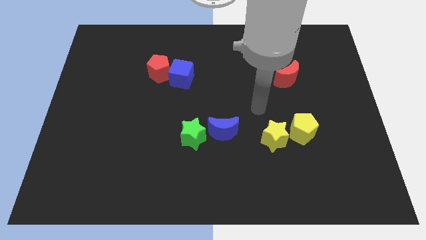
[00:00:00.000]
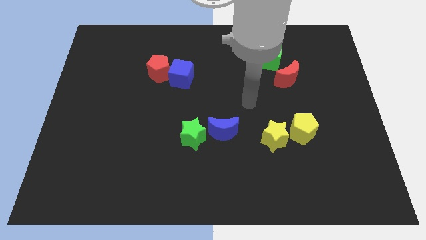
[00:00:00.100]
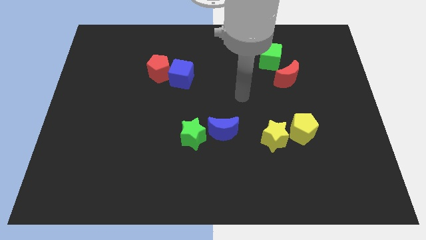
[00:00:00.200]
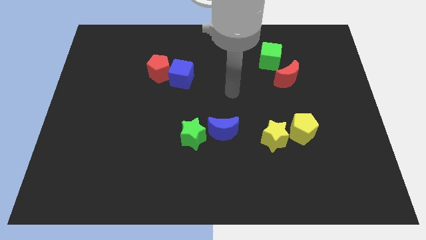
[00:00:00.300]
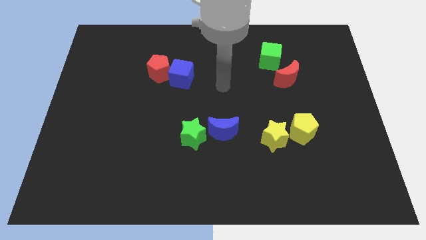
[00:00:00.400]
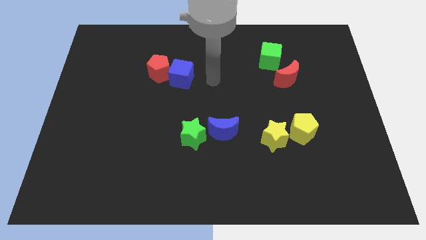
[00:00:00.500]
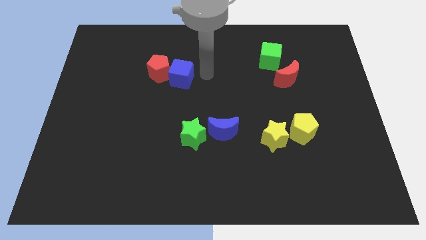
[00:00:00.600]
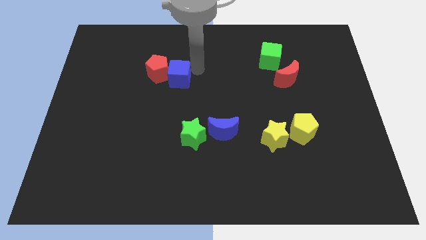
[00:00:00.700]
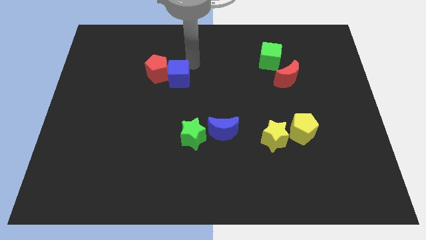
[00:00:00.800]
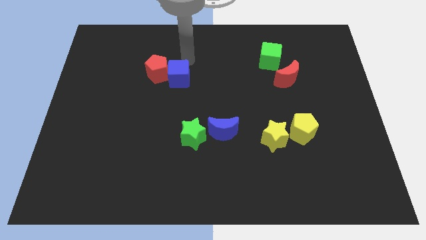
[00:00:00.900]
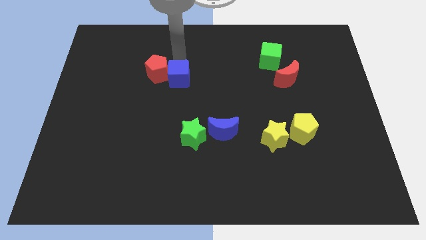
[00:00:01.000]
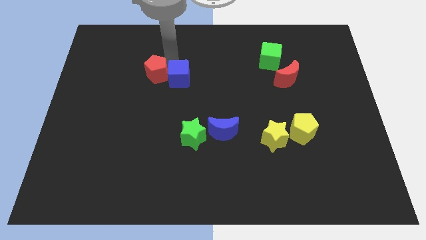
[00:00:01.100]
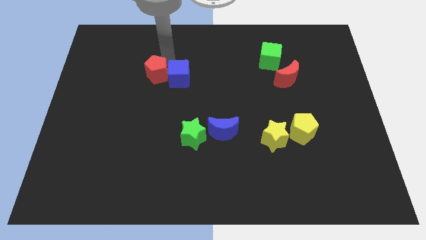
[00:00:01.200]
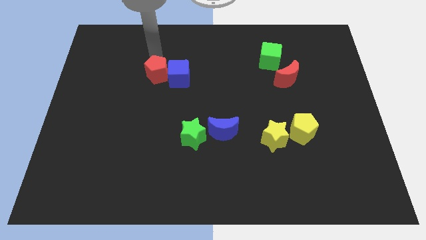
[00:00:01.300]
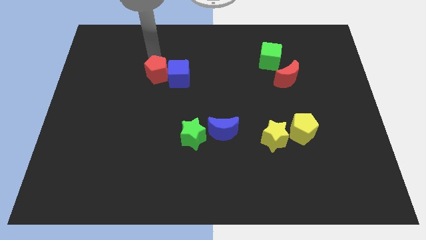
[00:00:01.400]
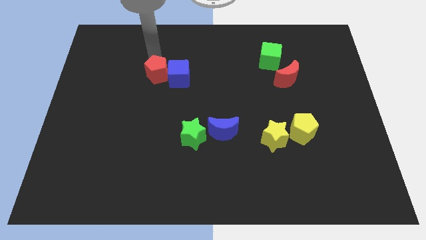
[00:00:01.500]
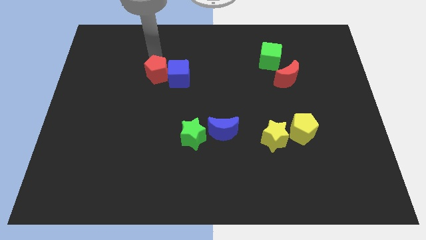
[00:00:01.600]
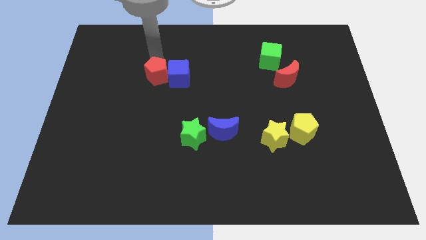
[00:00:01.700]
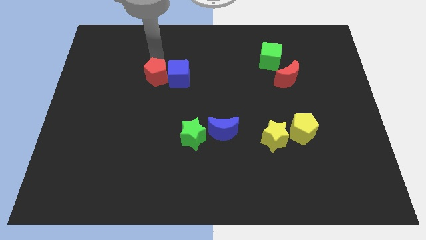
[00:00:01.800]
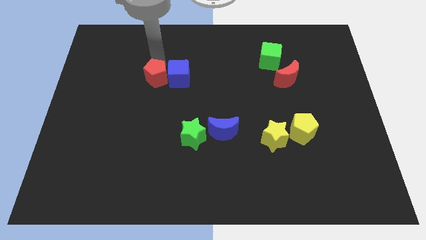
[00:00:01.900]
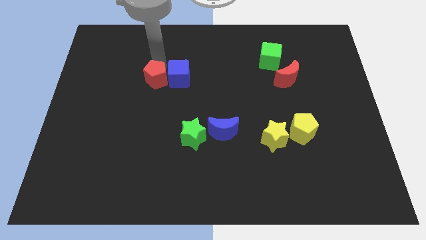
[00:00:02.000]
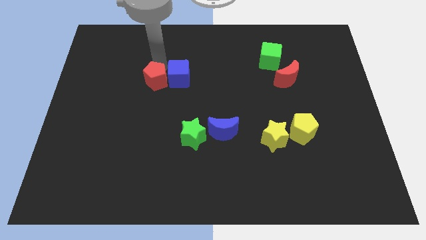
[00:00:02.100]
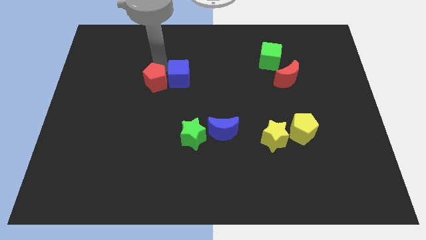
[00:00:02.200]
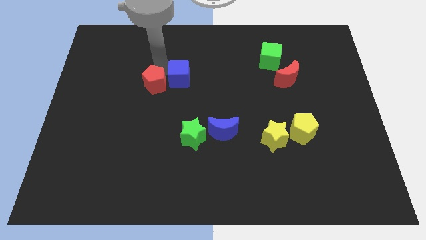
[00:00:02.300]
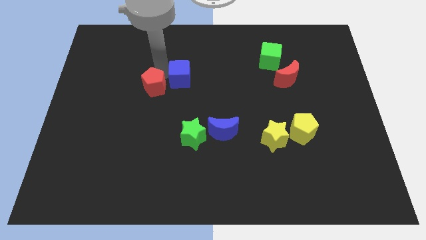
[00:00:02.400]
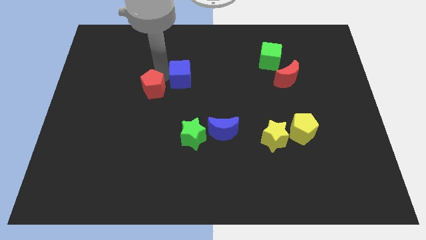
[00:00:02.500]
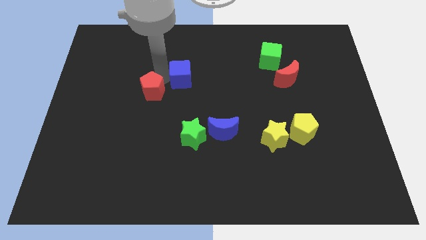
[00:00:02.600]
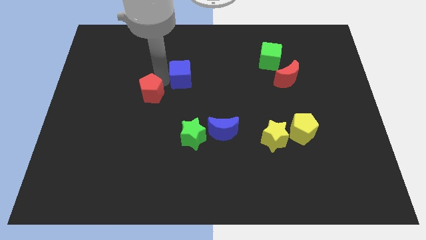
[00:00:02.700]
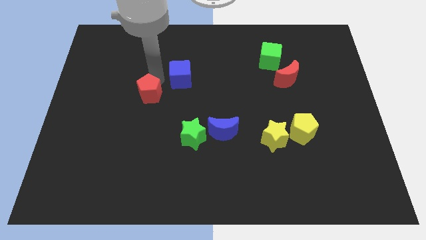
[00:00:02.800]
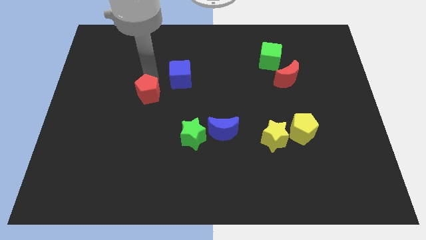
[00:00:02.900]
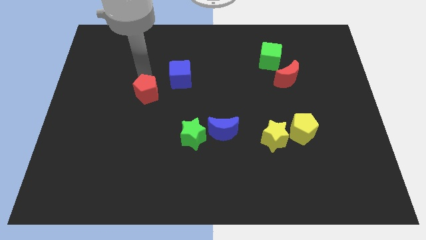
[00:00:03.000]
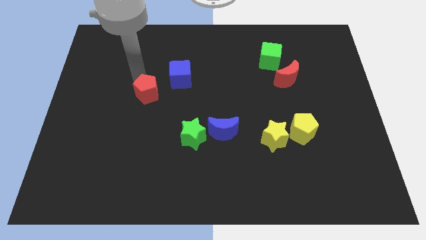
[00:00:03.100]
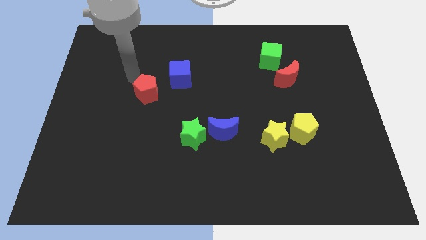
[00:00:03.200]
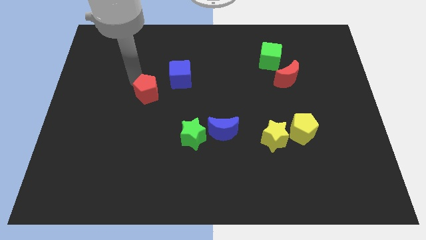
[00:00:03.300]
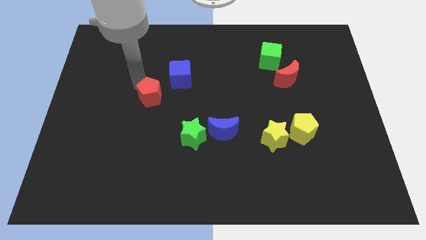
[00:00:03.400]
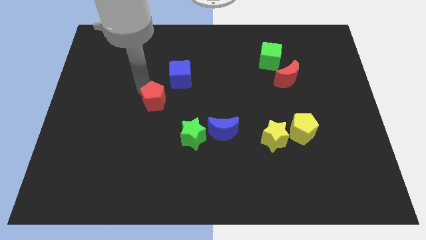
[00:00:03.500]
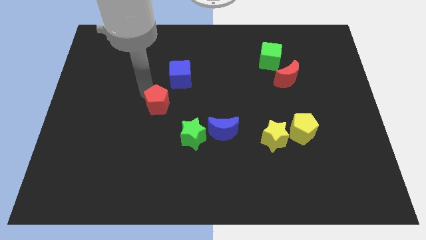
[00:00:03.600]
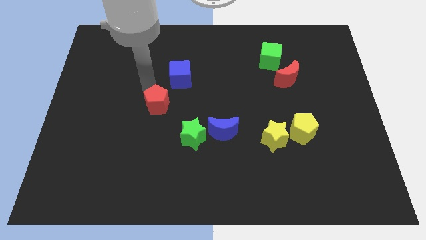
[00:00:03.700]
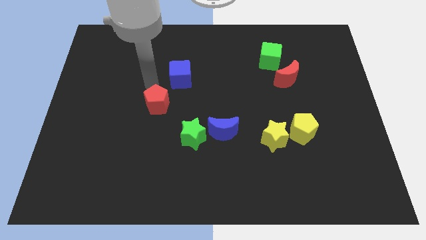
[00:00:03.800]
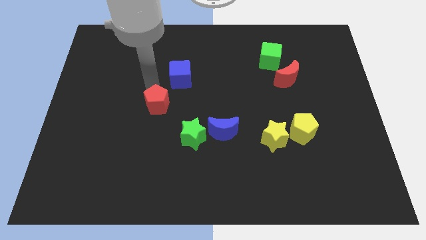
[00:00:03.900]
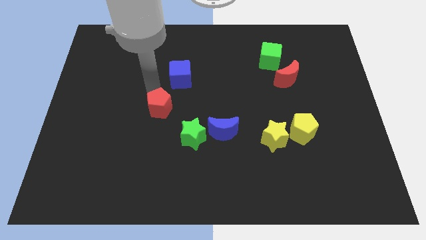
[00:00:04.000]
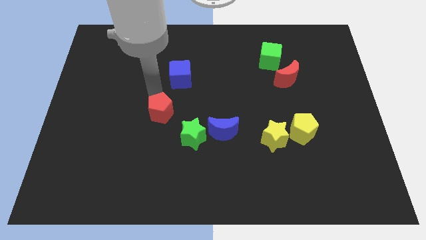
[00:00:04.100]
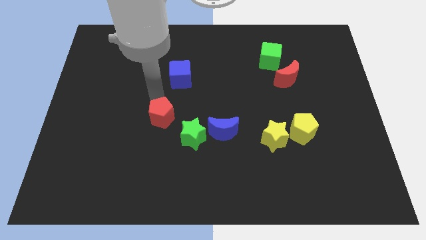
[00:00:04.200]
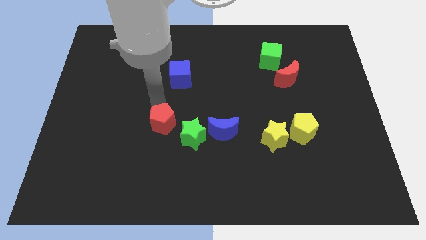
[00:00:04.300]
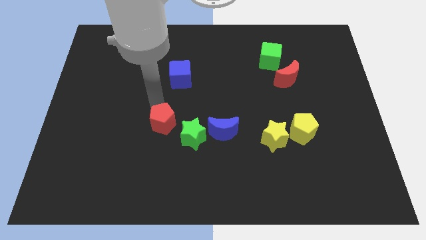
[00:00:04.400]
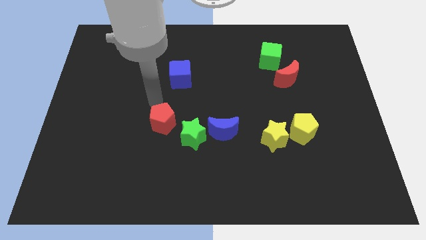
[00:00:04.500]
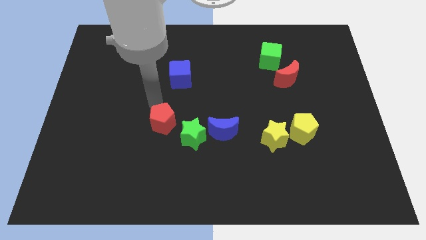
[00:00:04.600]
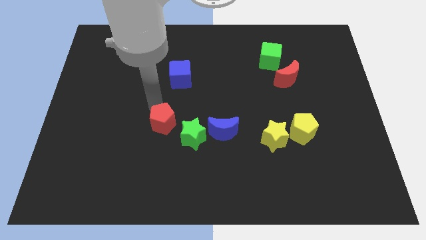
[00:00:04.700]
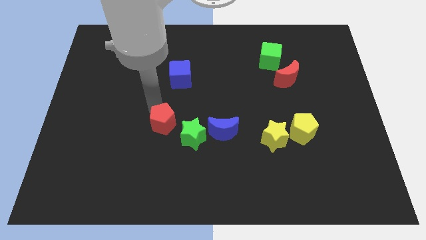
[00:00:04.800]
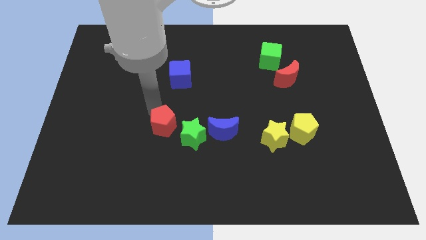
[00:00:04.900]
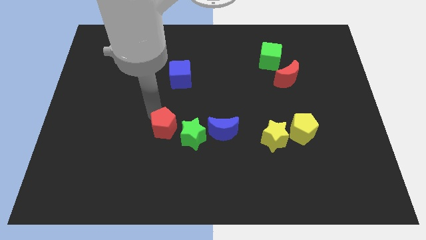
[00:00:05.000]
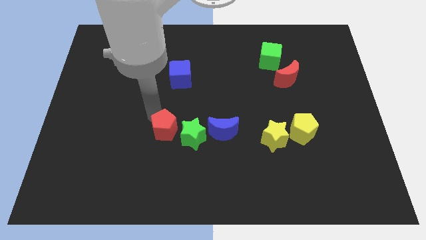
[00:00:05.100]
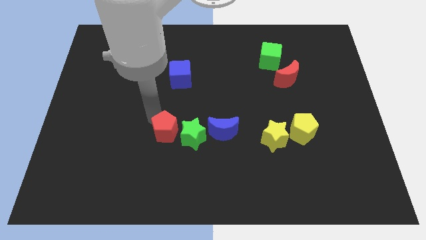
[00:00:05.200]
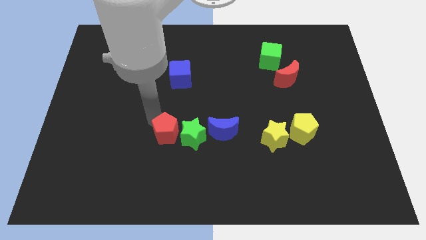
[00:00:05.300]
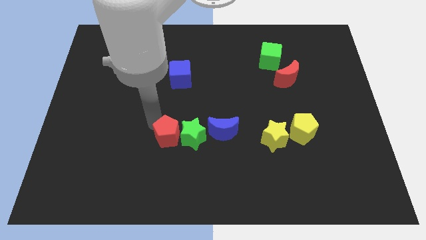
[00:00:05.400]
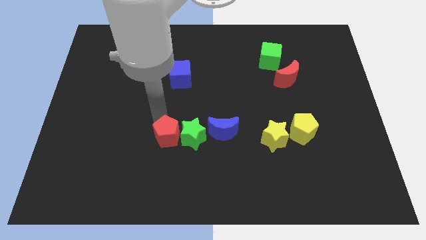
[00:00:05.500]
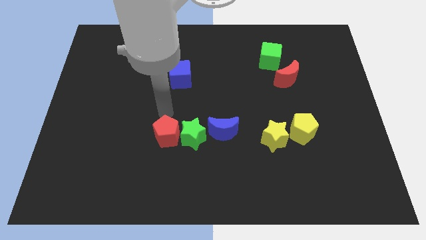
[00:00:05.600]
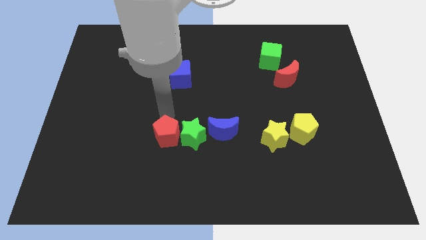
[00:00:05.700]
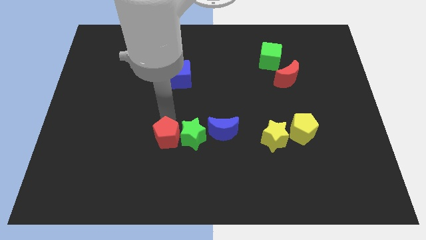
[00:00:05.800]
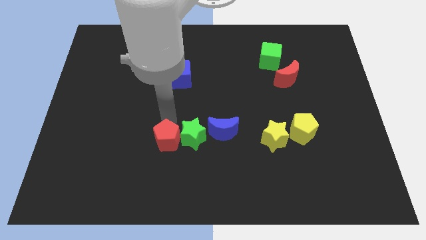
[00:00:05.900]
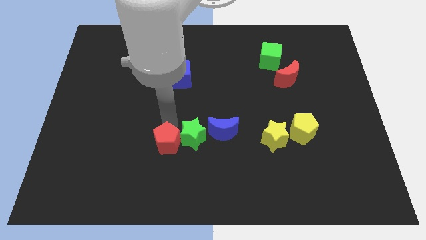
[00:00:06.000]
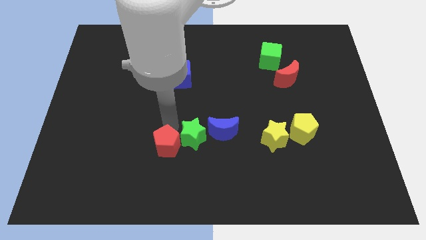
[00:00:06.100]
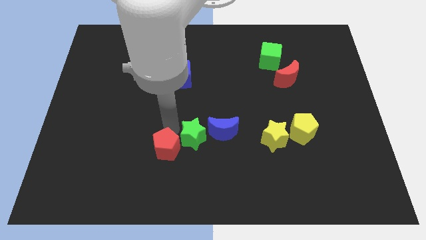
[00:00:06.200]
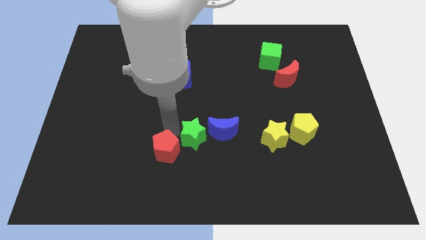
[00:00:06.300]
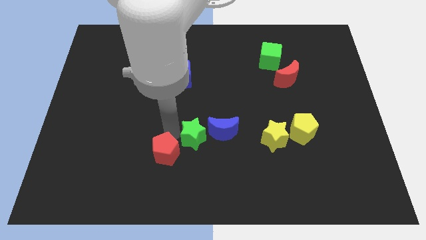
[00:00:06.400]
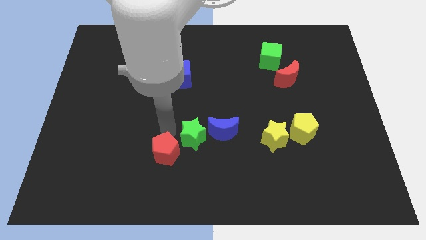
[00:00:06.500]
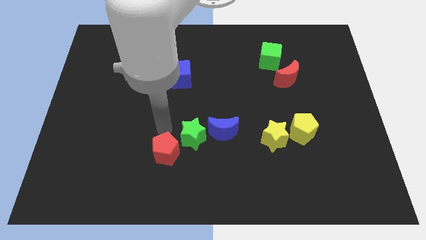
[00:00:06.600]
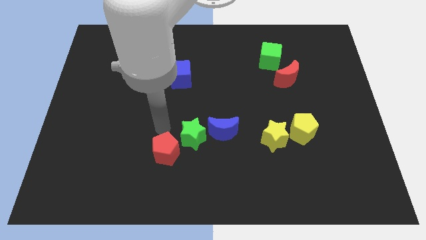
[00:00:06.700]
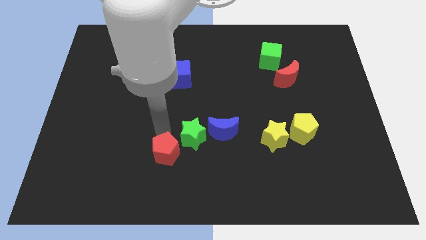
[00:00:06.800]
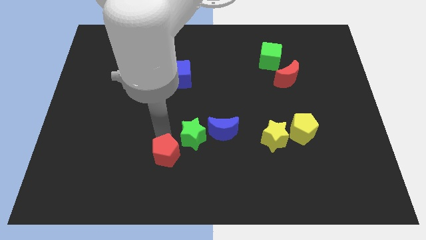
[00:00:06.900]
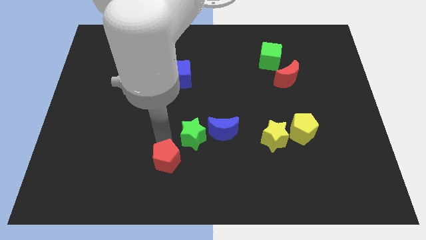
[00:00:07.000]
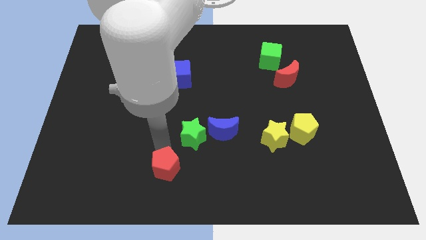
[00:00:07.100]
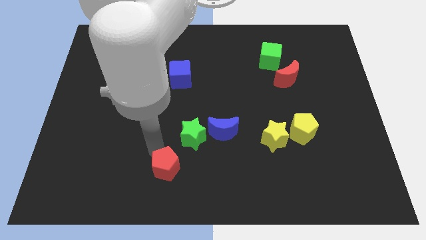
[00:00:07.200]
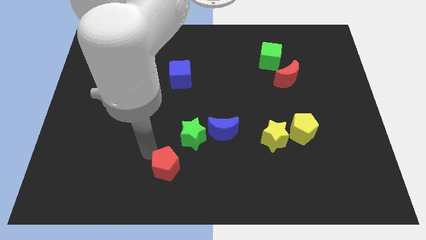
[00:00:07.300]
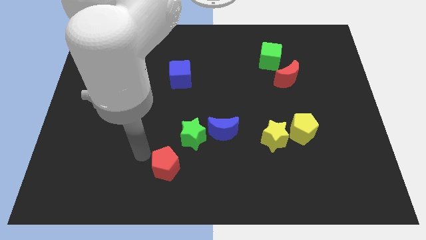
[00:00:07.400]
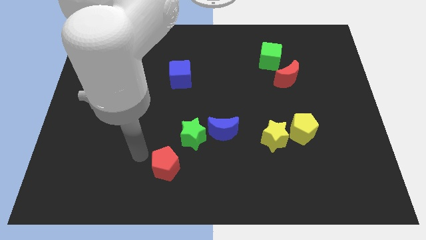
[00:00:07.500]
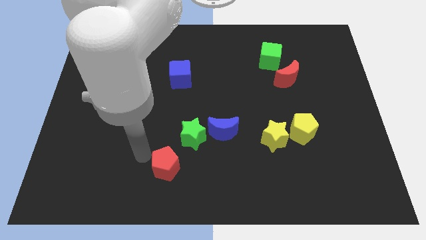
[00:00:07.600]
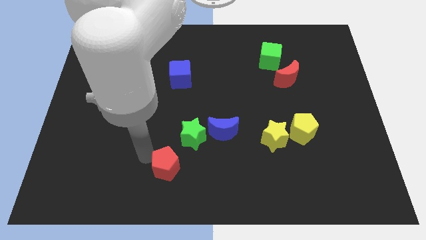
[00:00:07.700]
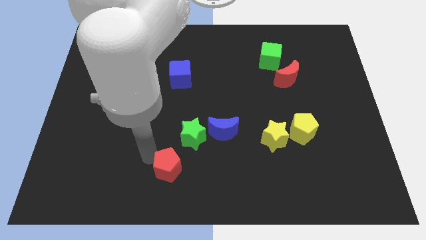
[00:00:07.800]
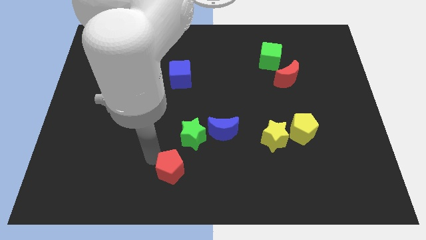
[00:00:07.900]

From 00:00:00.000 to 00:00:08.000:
slide the red pentagon below the green star
